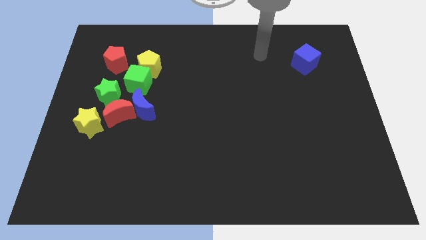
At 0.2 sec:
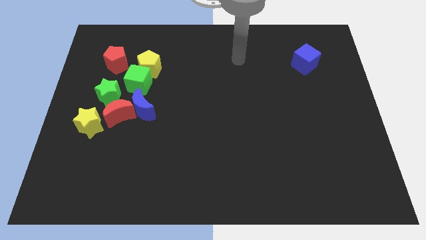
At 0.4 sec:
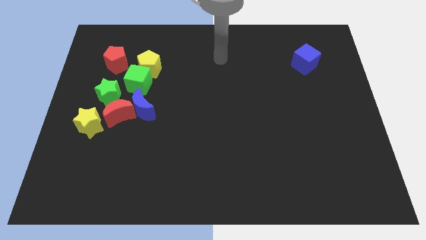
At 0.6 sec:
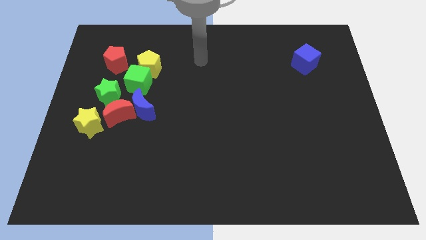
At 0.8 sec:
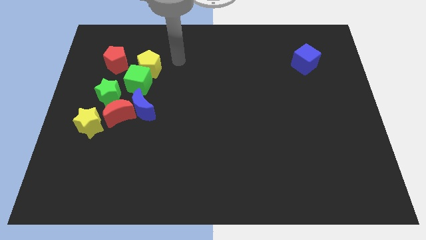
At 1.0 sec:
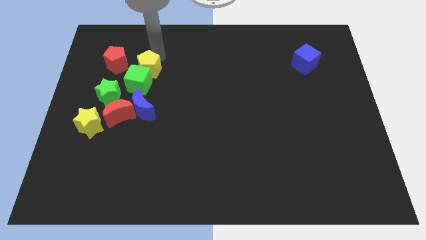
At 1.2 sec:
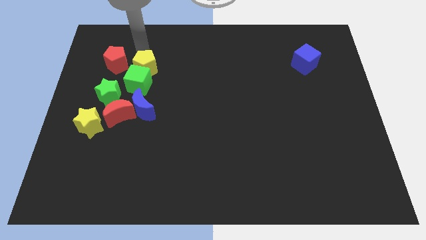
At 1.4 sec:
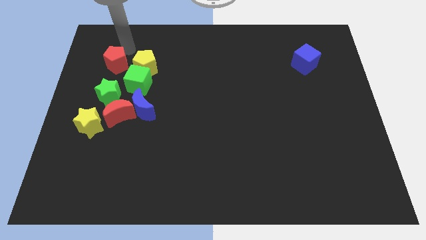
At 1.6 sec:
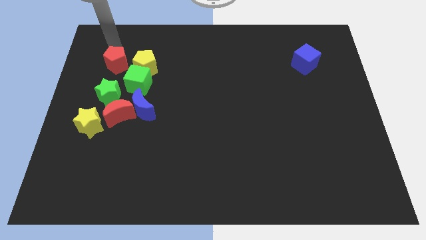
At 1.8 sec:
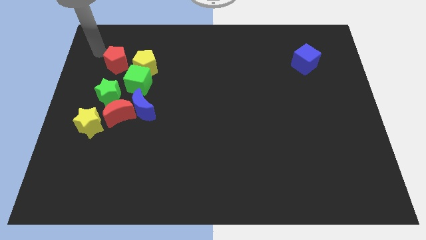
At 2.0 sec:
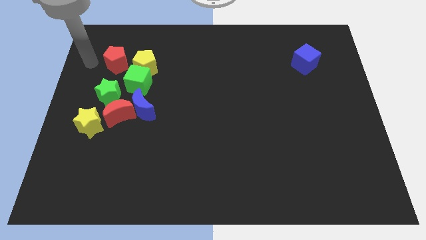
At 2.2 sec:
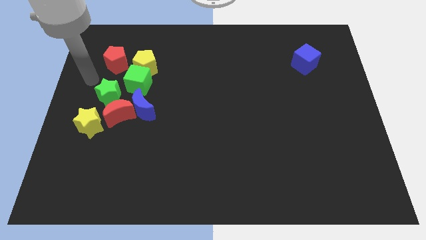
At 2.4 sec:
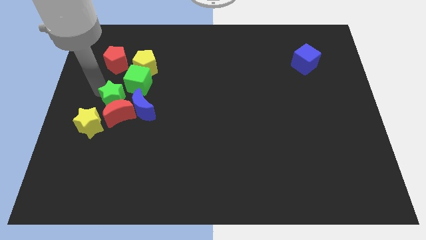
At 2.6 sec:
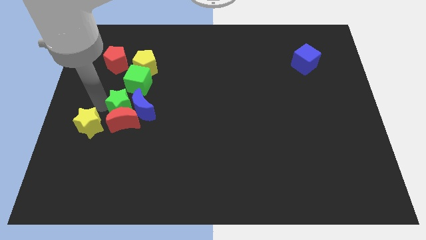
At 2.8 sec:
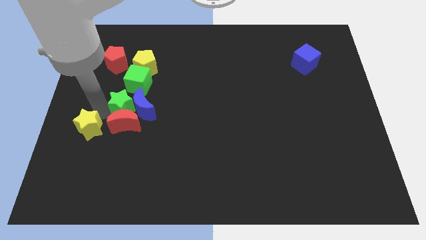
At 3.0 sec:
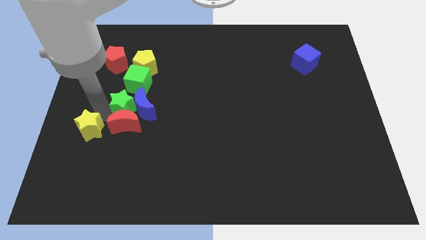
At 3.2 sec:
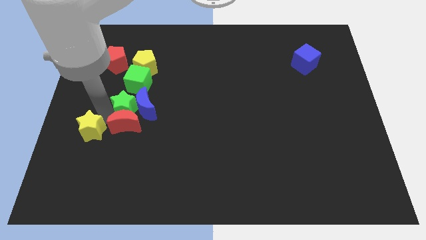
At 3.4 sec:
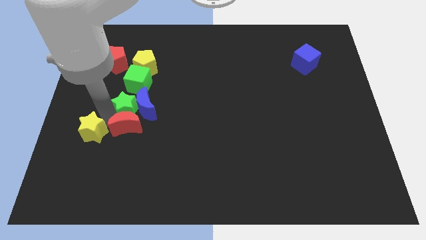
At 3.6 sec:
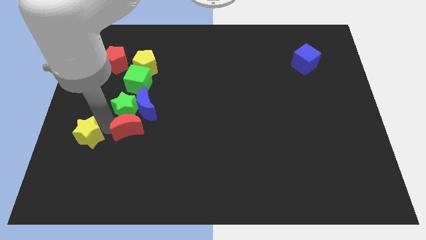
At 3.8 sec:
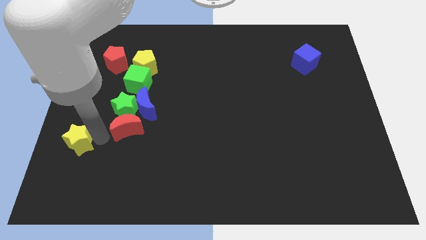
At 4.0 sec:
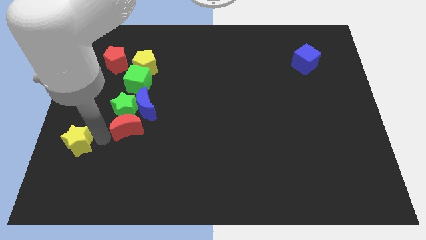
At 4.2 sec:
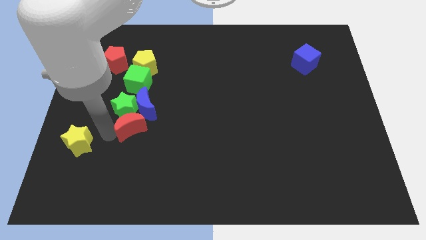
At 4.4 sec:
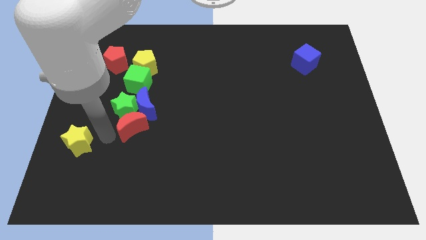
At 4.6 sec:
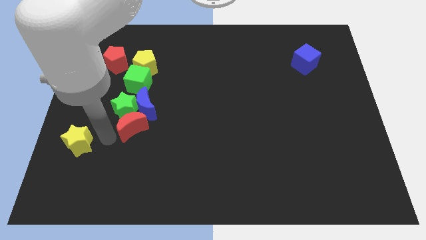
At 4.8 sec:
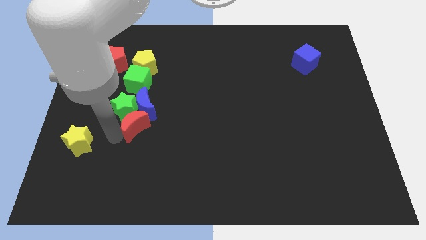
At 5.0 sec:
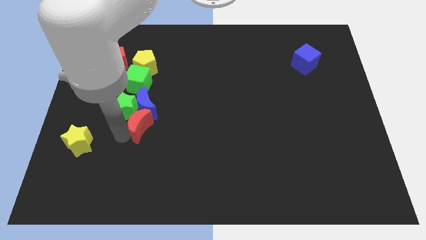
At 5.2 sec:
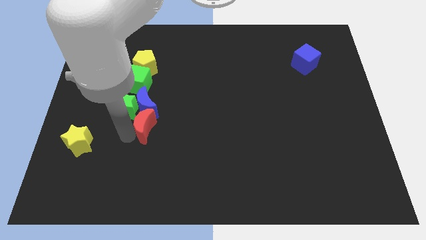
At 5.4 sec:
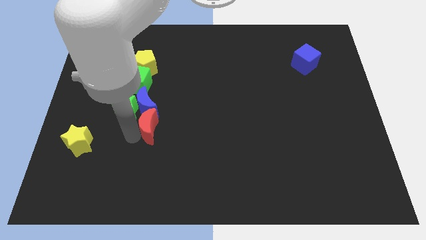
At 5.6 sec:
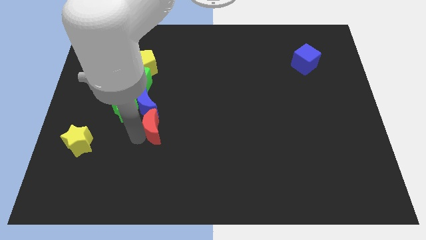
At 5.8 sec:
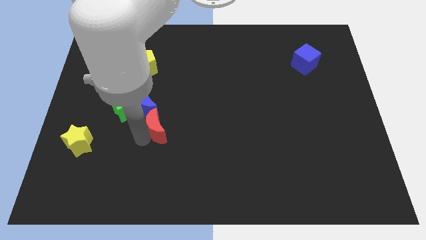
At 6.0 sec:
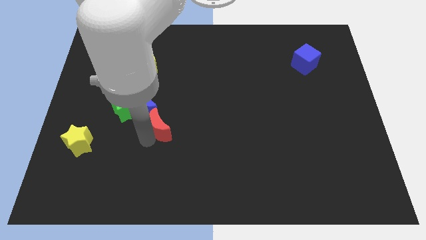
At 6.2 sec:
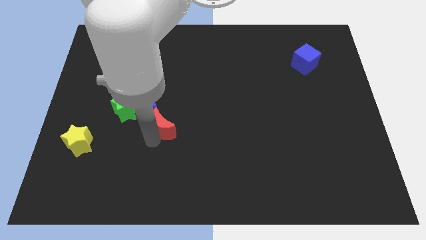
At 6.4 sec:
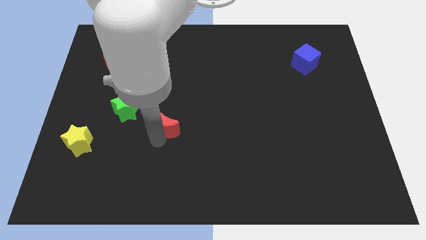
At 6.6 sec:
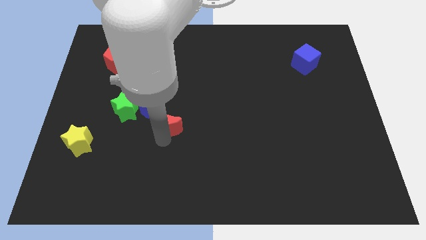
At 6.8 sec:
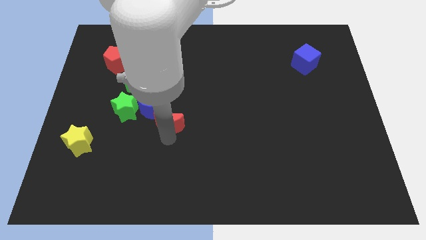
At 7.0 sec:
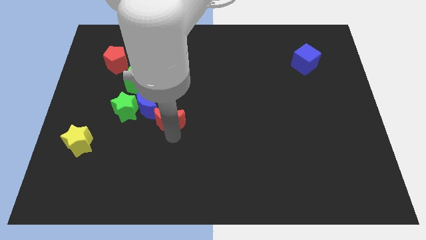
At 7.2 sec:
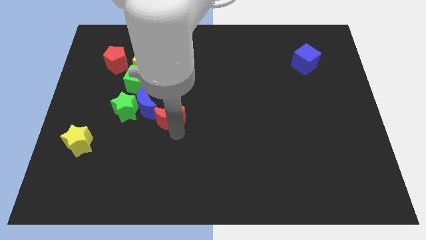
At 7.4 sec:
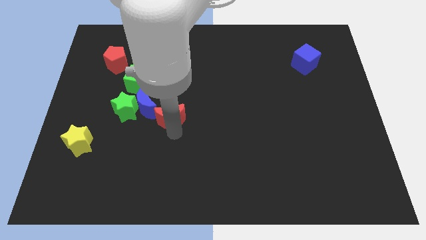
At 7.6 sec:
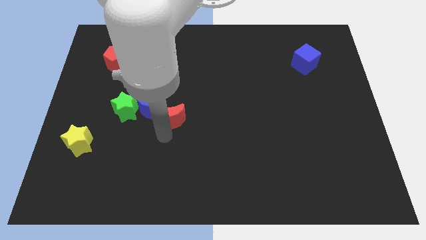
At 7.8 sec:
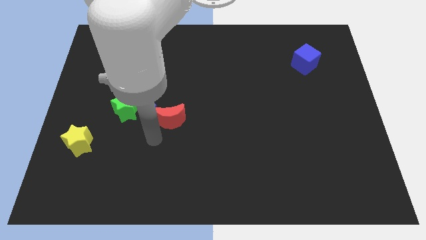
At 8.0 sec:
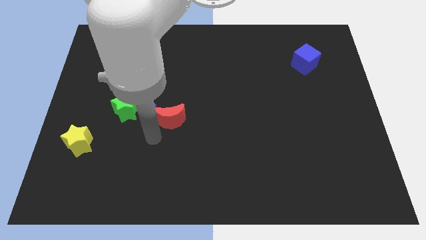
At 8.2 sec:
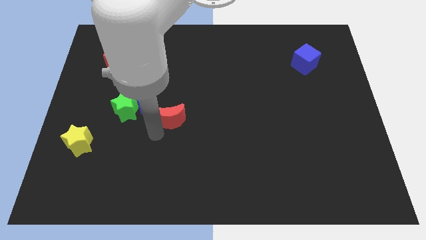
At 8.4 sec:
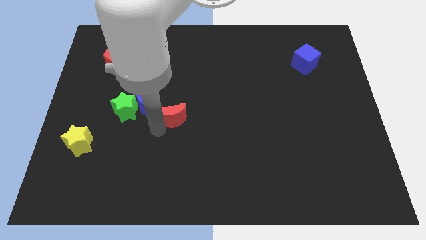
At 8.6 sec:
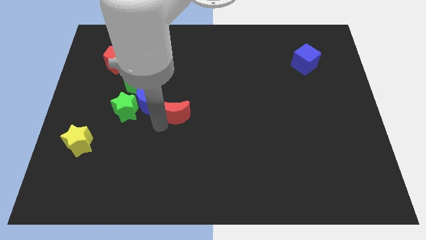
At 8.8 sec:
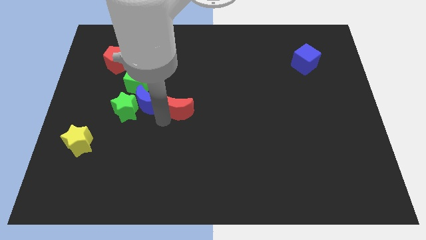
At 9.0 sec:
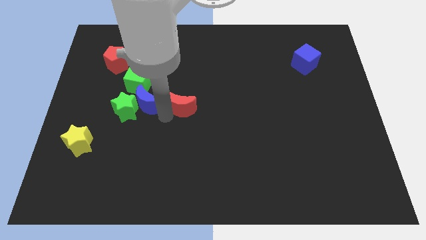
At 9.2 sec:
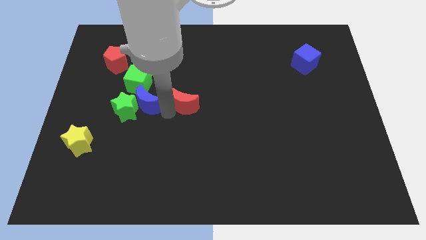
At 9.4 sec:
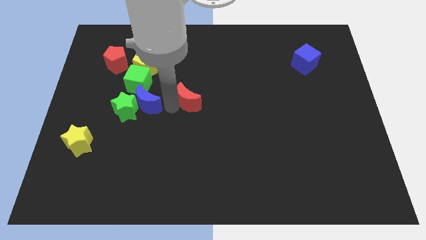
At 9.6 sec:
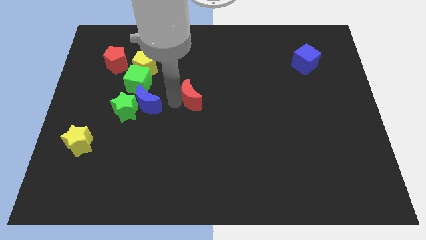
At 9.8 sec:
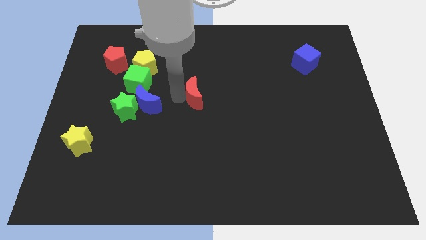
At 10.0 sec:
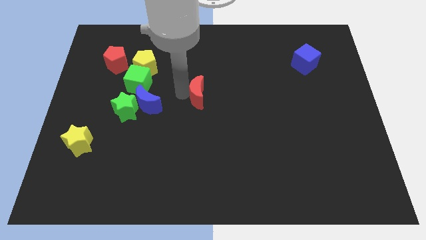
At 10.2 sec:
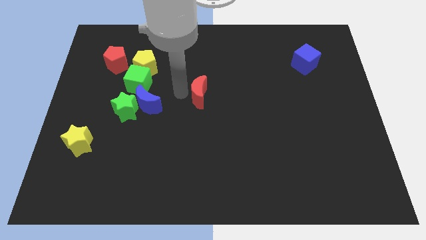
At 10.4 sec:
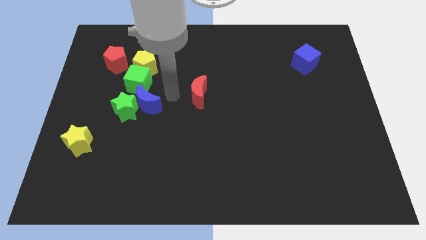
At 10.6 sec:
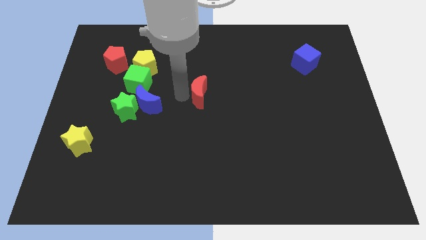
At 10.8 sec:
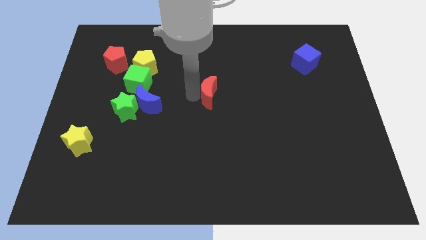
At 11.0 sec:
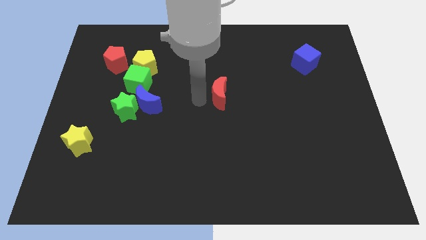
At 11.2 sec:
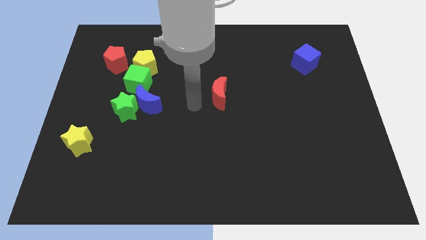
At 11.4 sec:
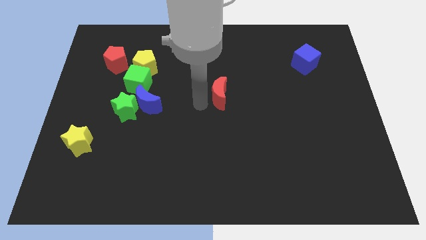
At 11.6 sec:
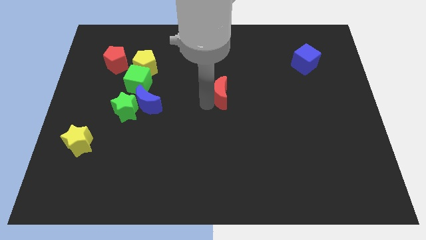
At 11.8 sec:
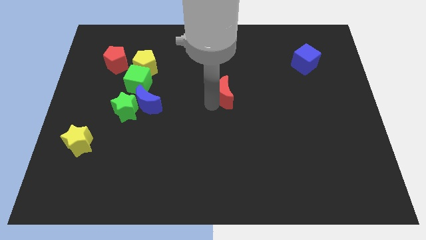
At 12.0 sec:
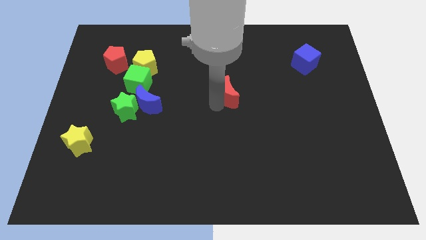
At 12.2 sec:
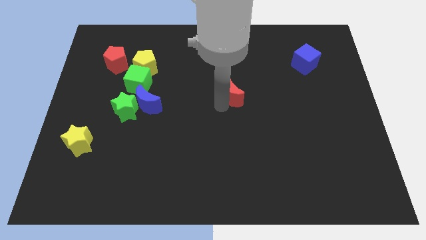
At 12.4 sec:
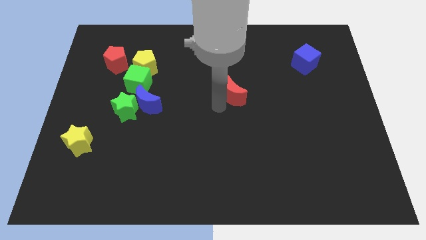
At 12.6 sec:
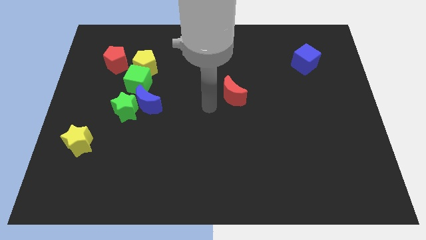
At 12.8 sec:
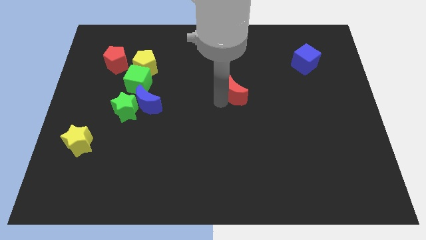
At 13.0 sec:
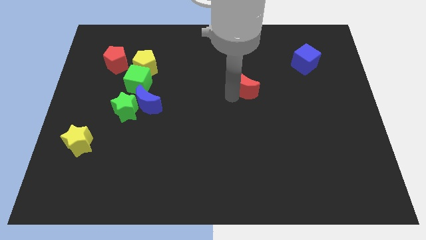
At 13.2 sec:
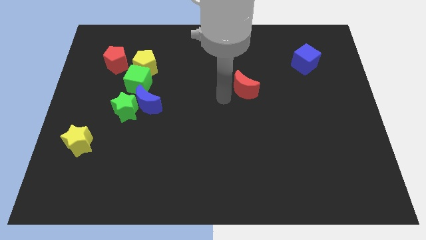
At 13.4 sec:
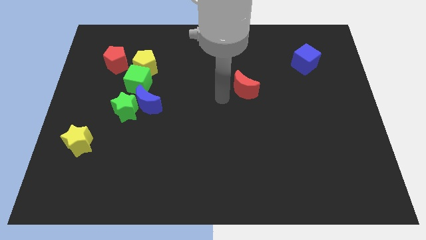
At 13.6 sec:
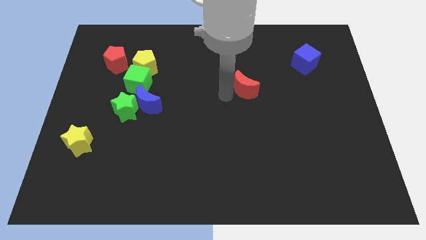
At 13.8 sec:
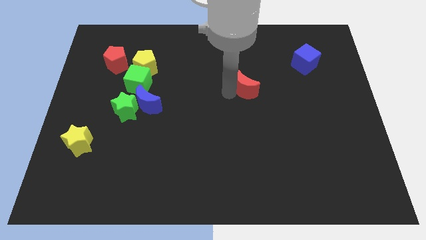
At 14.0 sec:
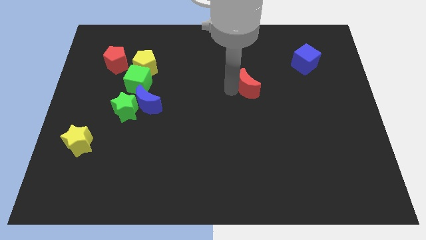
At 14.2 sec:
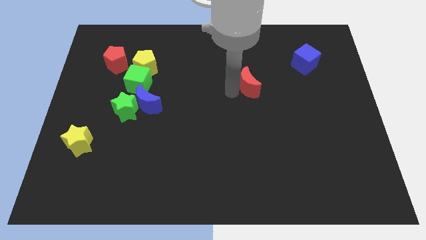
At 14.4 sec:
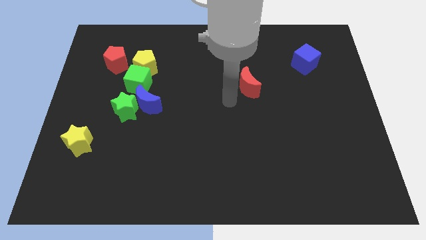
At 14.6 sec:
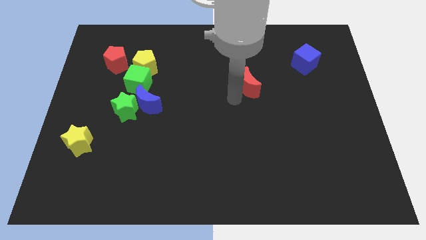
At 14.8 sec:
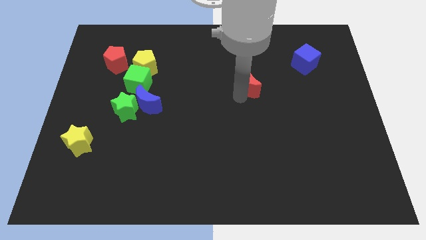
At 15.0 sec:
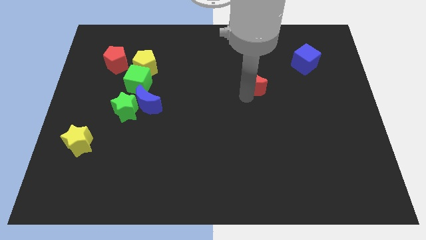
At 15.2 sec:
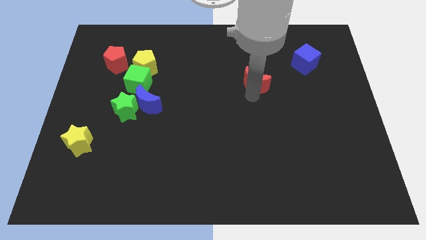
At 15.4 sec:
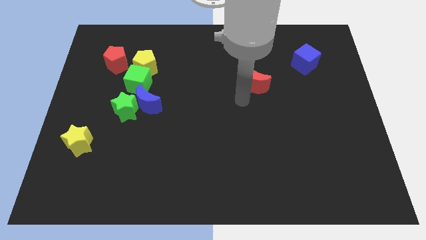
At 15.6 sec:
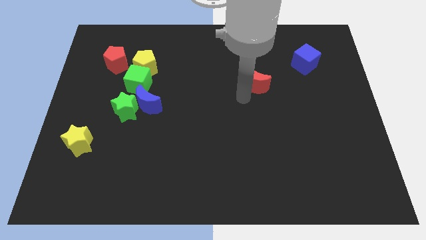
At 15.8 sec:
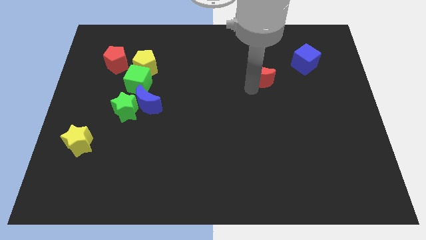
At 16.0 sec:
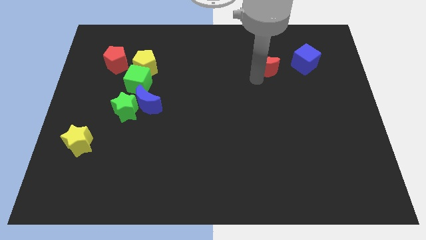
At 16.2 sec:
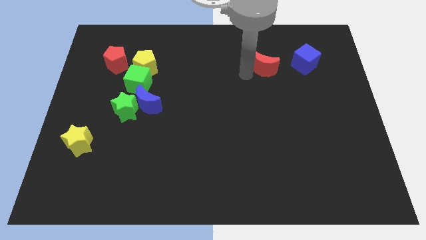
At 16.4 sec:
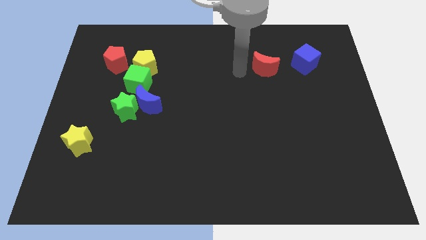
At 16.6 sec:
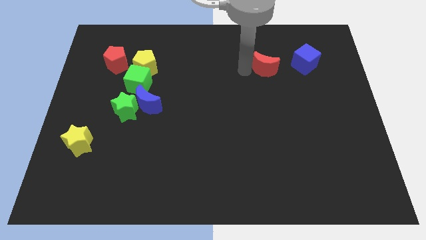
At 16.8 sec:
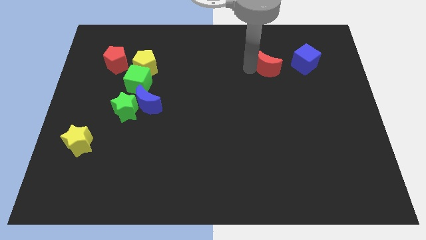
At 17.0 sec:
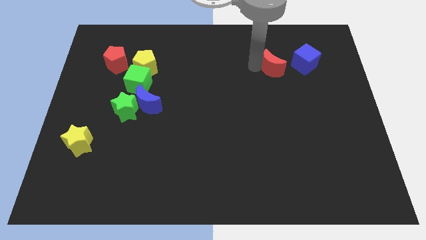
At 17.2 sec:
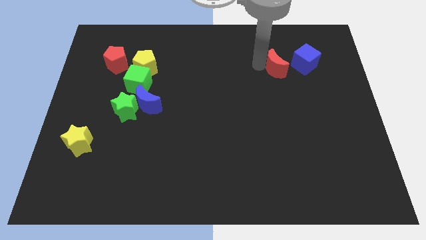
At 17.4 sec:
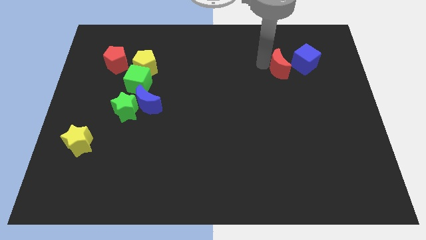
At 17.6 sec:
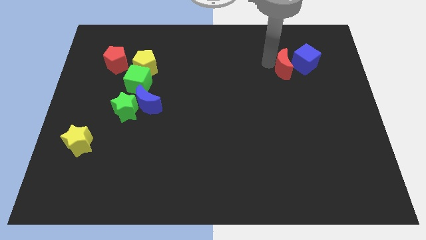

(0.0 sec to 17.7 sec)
put the red moon close to the blue cube
